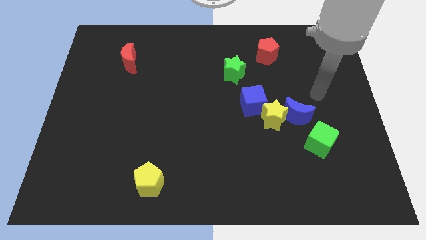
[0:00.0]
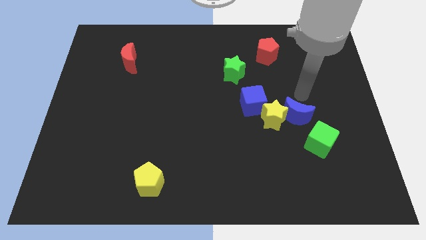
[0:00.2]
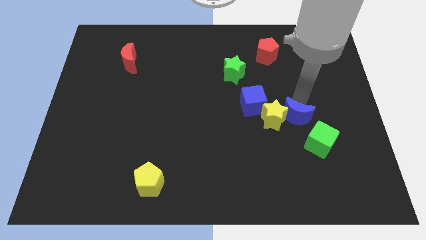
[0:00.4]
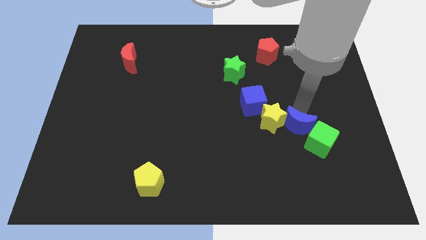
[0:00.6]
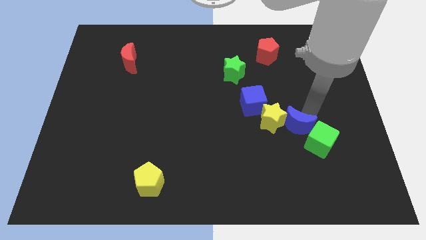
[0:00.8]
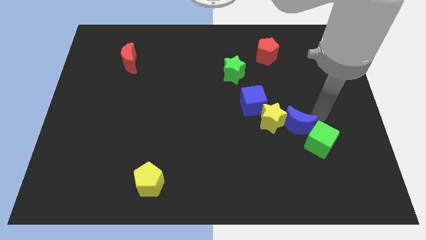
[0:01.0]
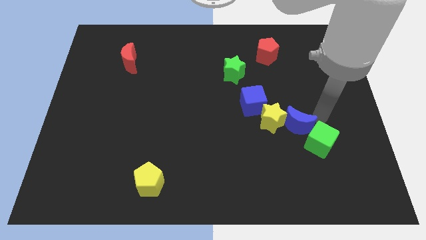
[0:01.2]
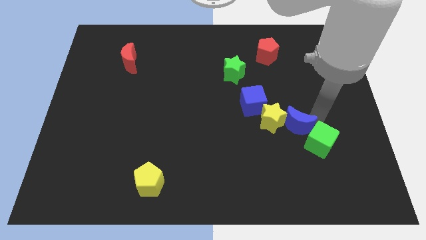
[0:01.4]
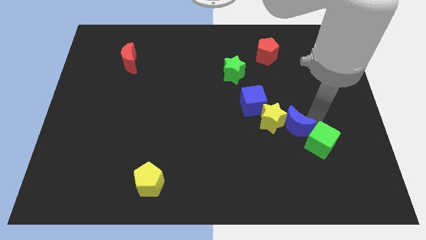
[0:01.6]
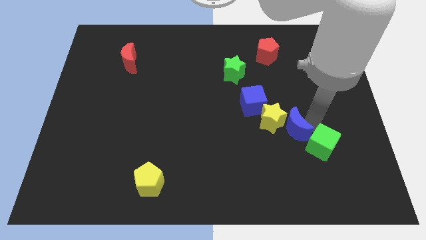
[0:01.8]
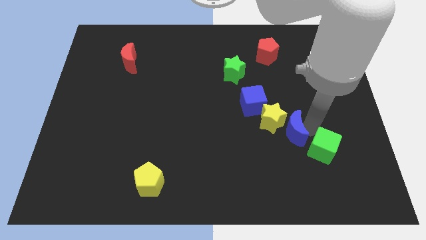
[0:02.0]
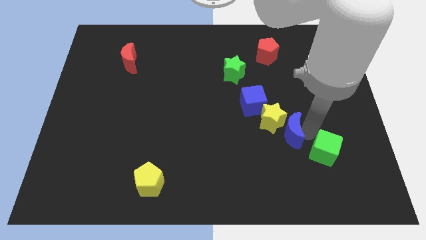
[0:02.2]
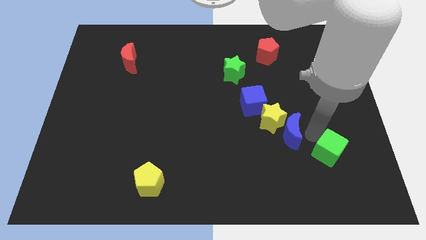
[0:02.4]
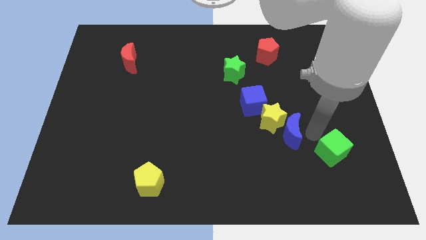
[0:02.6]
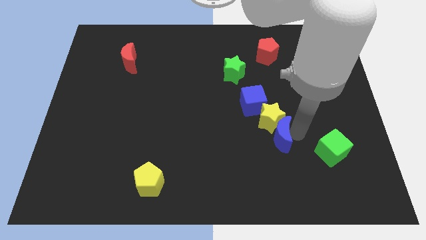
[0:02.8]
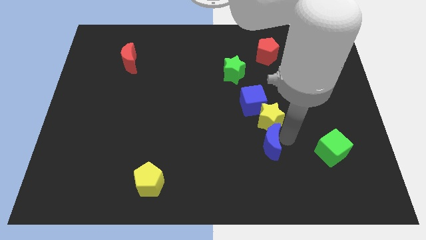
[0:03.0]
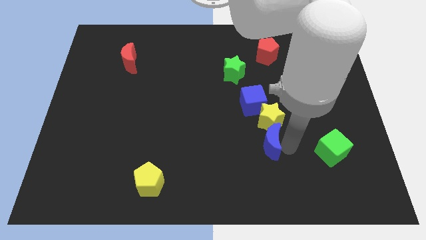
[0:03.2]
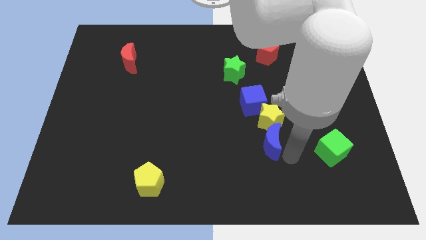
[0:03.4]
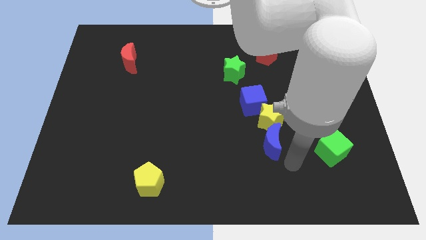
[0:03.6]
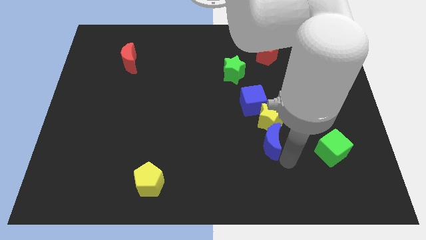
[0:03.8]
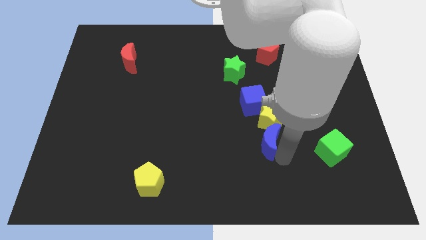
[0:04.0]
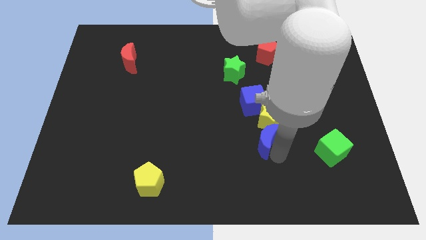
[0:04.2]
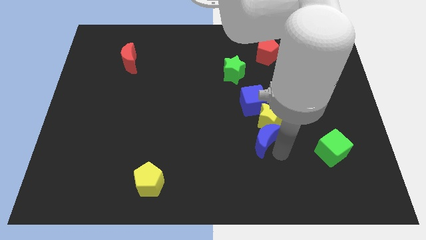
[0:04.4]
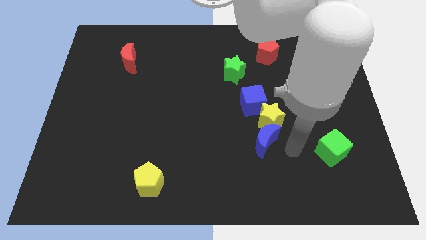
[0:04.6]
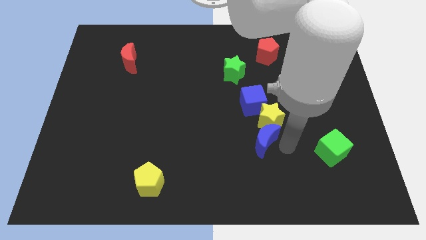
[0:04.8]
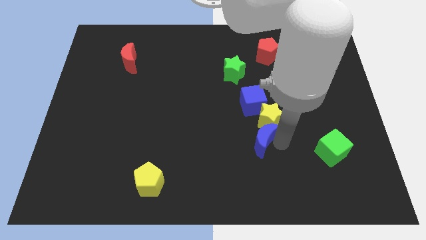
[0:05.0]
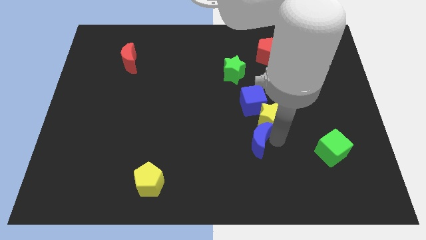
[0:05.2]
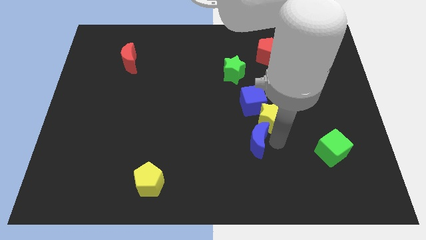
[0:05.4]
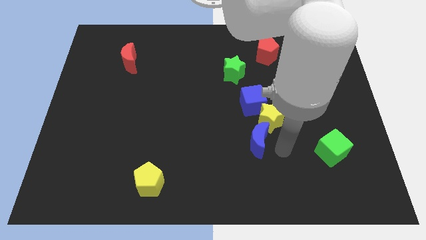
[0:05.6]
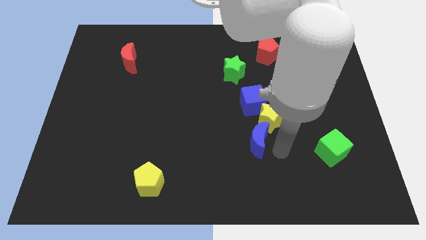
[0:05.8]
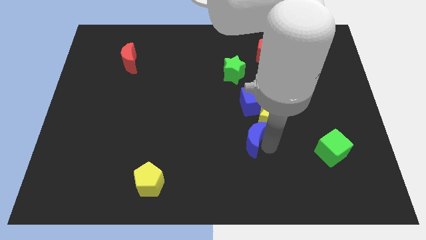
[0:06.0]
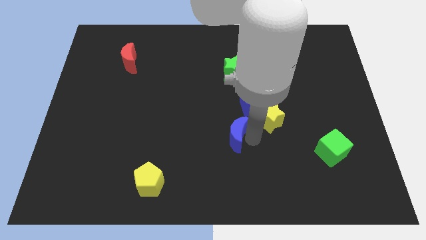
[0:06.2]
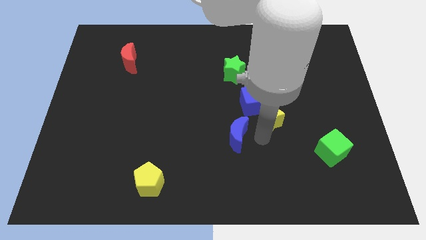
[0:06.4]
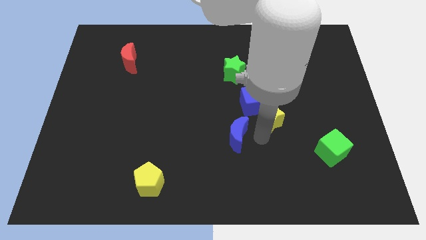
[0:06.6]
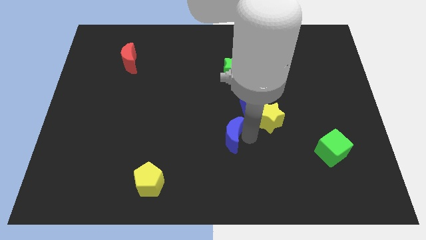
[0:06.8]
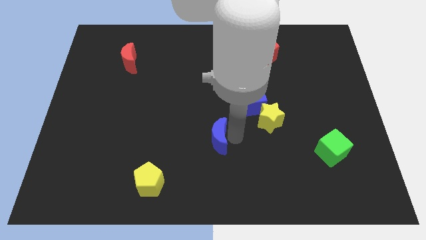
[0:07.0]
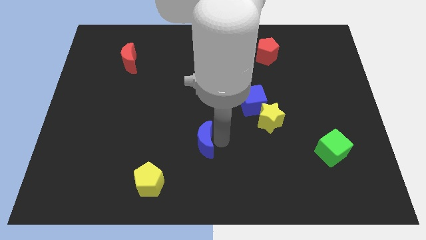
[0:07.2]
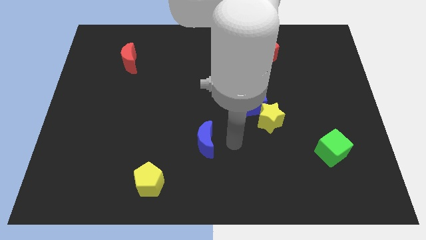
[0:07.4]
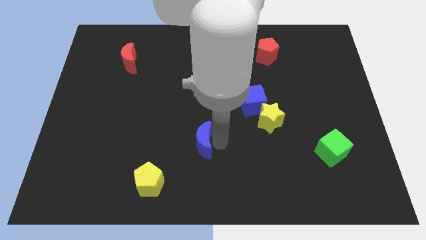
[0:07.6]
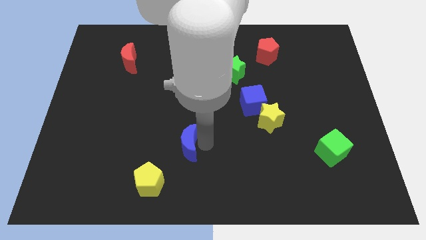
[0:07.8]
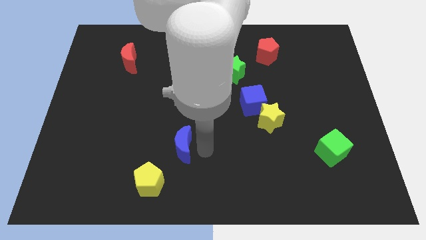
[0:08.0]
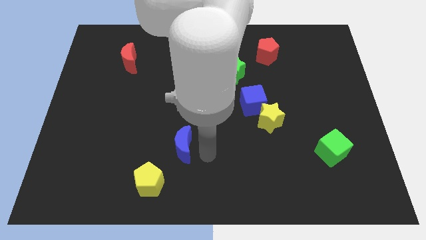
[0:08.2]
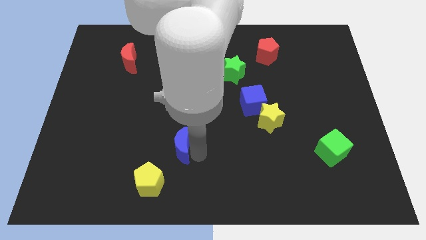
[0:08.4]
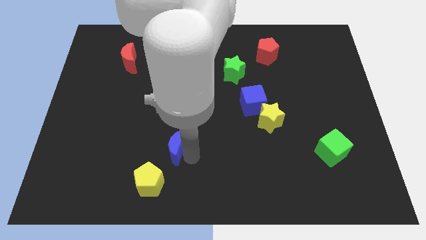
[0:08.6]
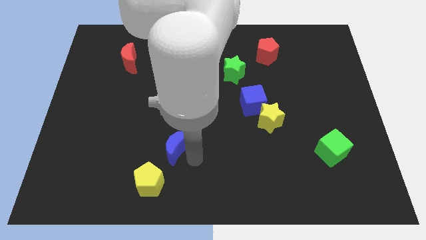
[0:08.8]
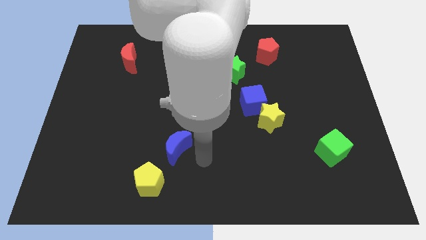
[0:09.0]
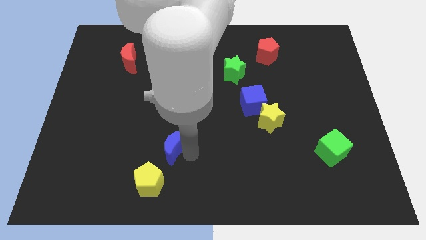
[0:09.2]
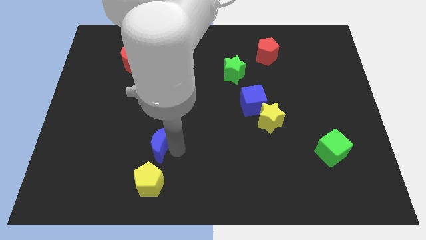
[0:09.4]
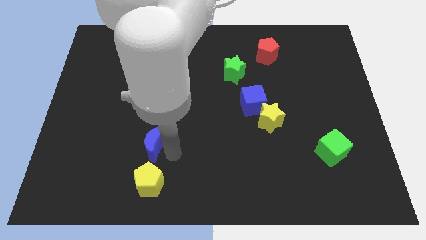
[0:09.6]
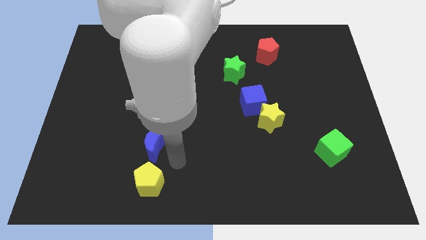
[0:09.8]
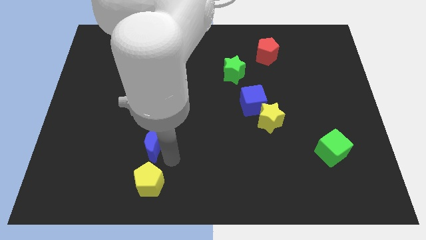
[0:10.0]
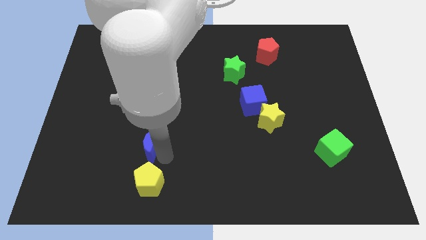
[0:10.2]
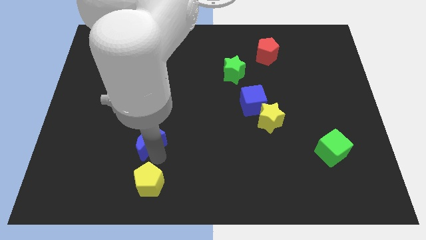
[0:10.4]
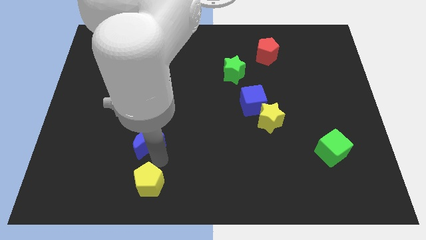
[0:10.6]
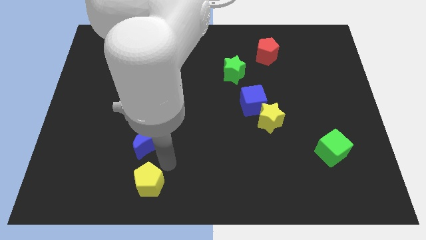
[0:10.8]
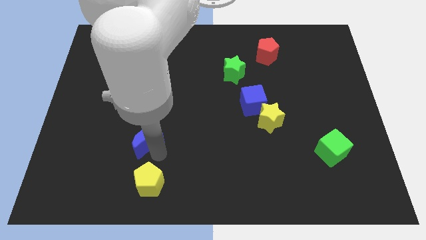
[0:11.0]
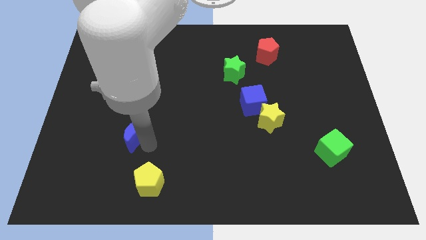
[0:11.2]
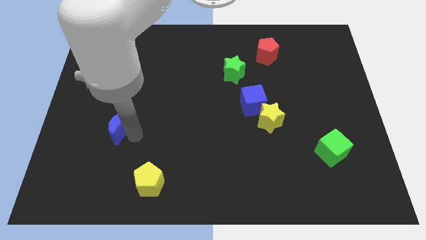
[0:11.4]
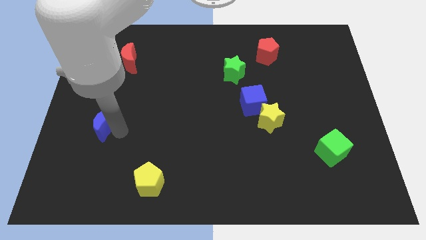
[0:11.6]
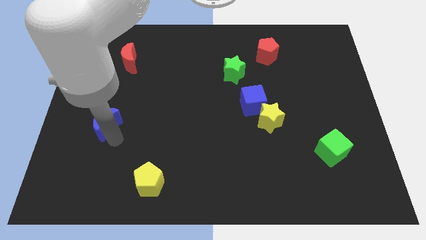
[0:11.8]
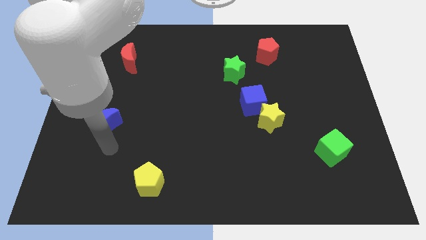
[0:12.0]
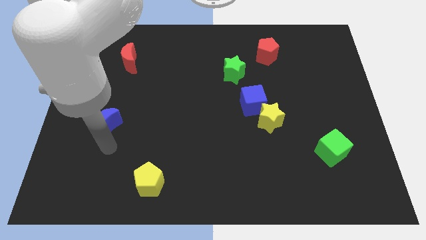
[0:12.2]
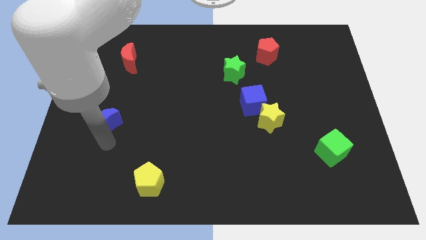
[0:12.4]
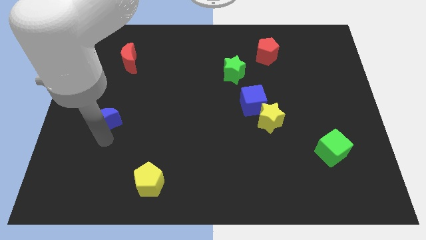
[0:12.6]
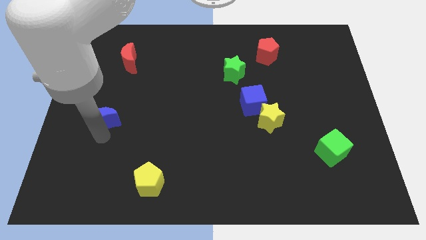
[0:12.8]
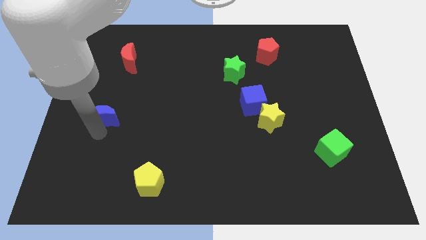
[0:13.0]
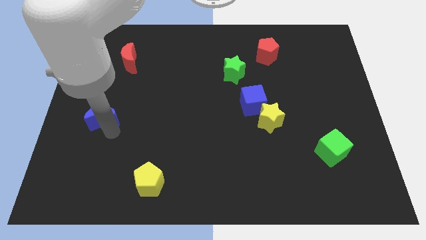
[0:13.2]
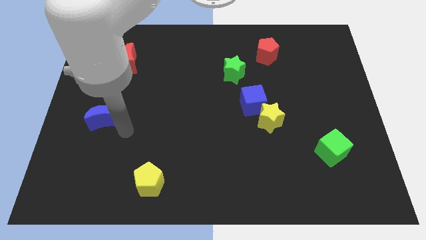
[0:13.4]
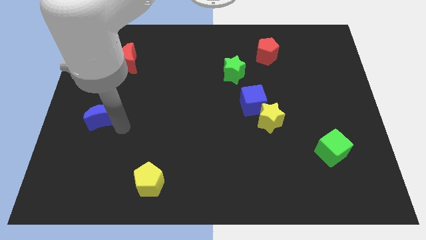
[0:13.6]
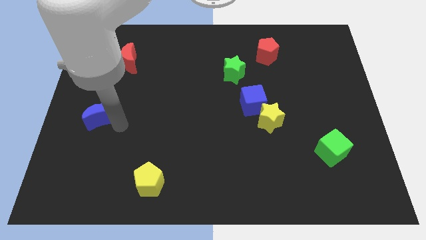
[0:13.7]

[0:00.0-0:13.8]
move the blue moon to the center left
